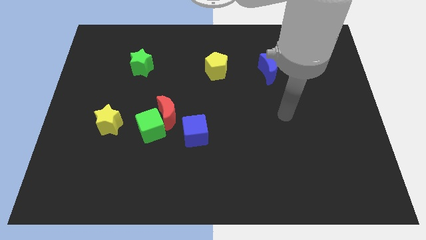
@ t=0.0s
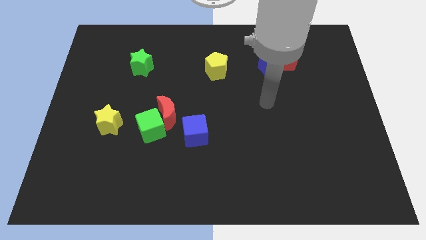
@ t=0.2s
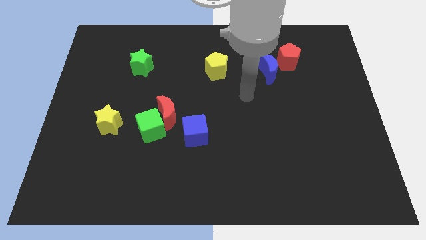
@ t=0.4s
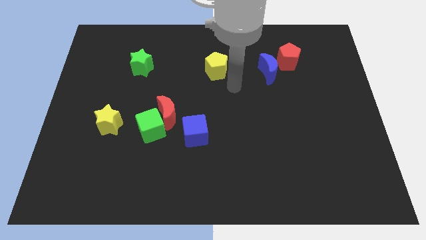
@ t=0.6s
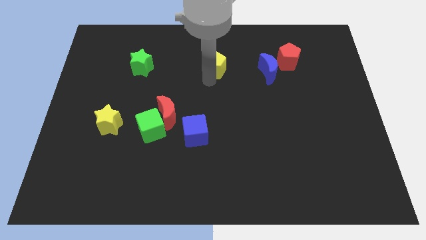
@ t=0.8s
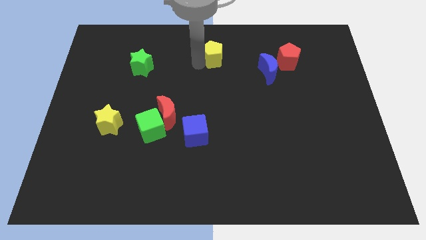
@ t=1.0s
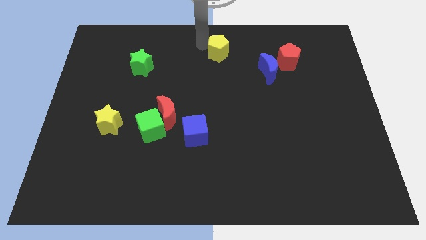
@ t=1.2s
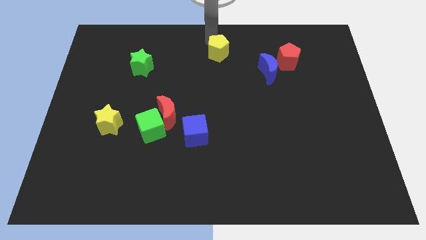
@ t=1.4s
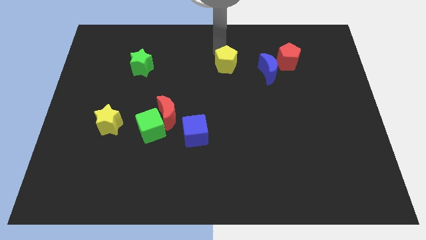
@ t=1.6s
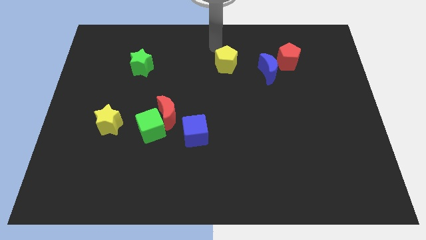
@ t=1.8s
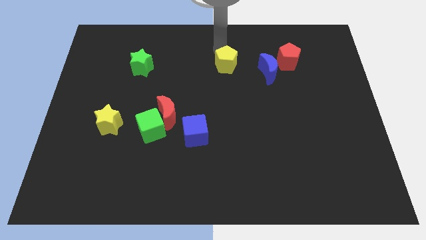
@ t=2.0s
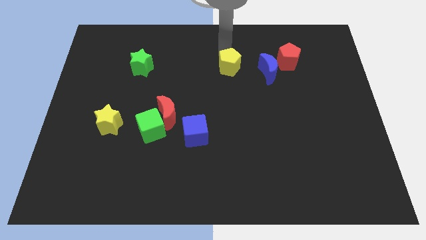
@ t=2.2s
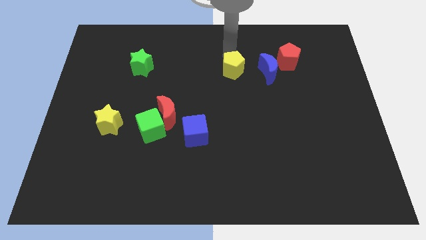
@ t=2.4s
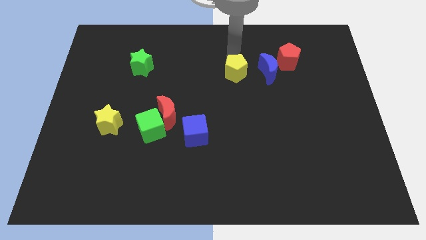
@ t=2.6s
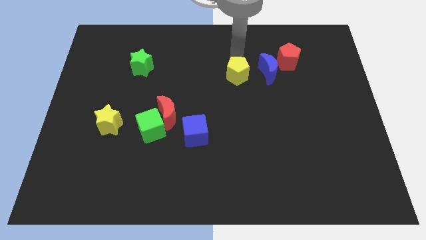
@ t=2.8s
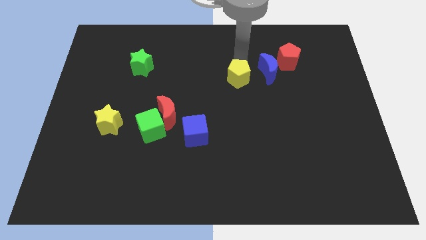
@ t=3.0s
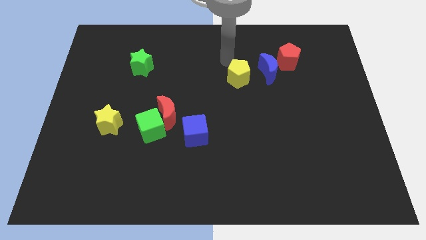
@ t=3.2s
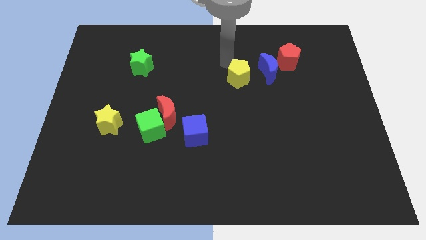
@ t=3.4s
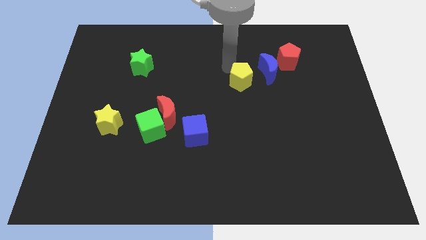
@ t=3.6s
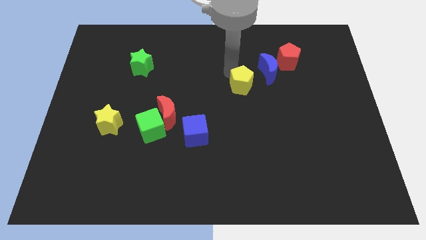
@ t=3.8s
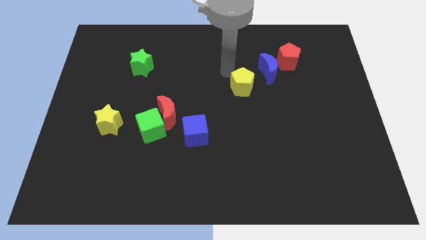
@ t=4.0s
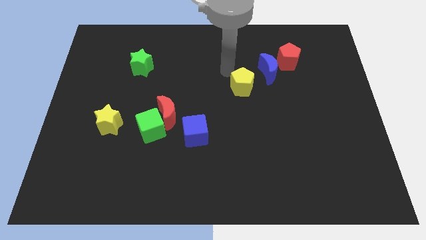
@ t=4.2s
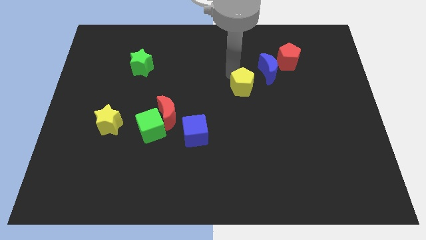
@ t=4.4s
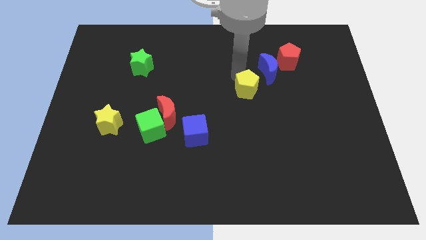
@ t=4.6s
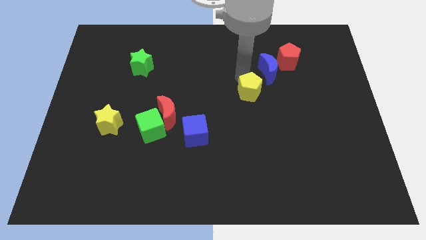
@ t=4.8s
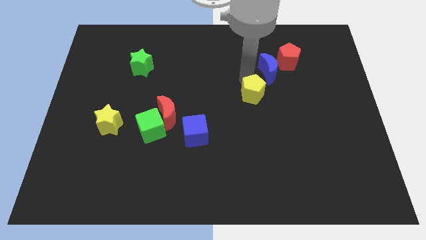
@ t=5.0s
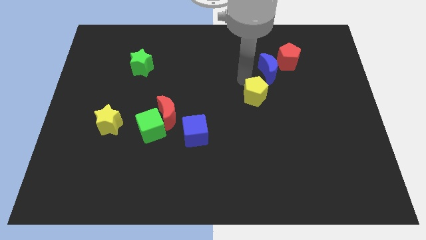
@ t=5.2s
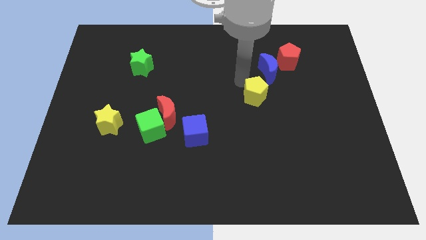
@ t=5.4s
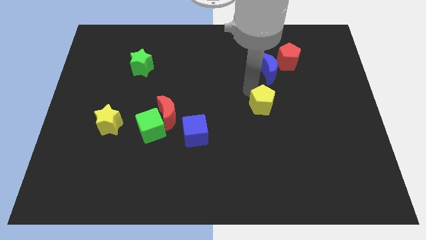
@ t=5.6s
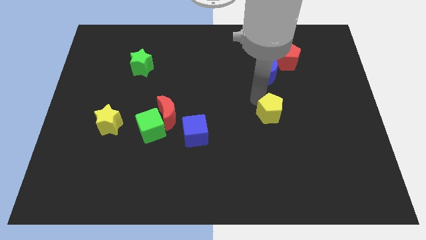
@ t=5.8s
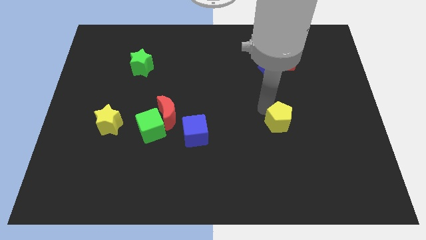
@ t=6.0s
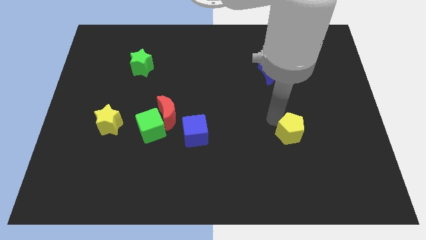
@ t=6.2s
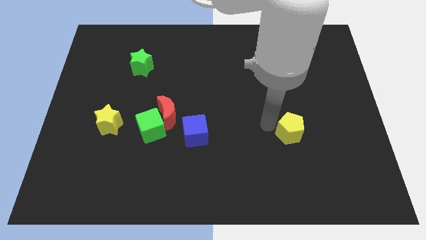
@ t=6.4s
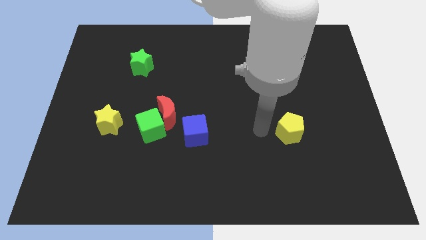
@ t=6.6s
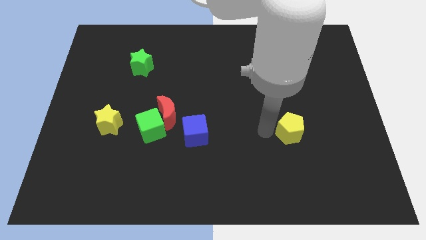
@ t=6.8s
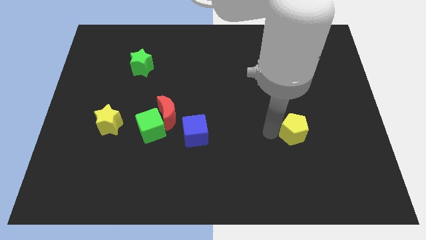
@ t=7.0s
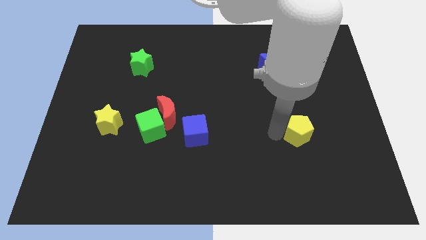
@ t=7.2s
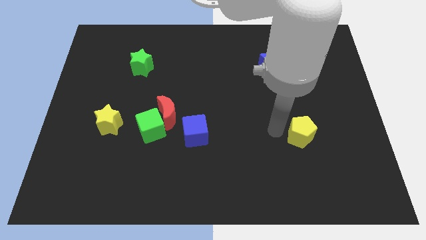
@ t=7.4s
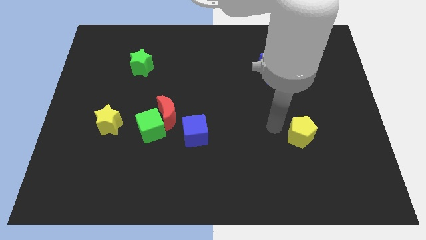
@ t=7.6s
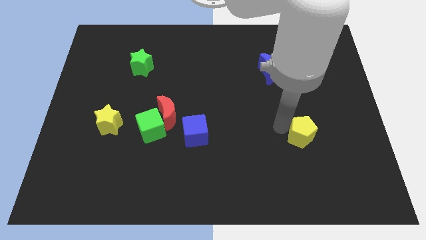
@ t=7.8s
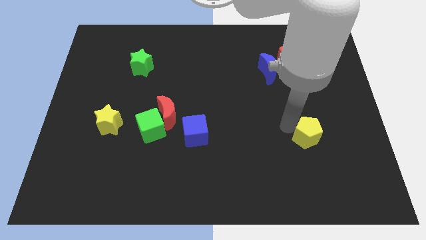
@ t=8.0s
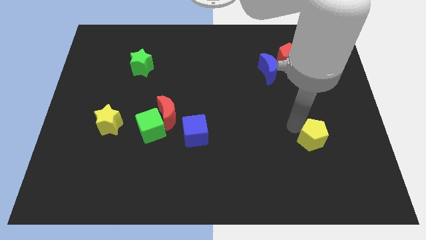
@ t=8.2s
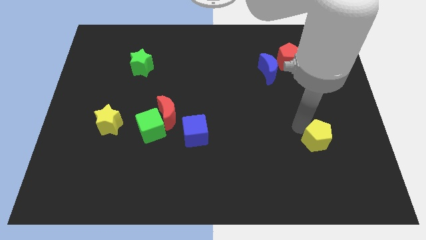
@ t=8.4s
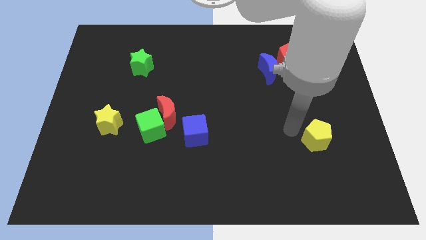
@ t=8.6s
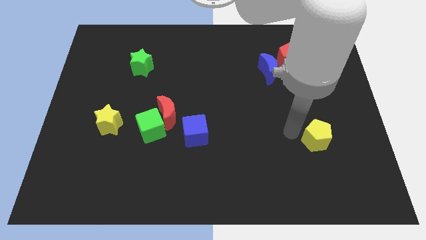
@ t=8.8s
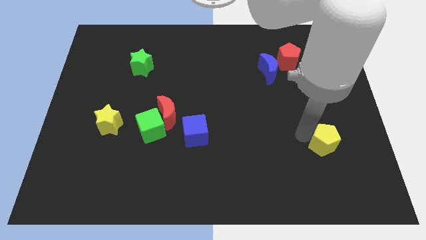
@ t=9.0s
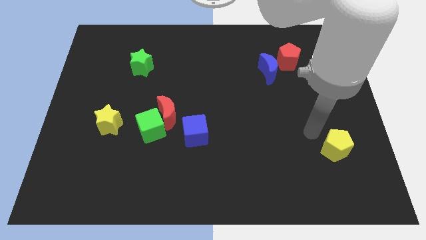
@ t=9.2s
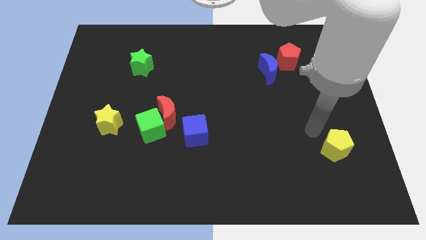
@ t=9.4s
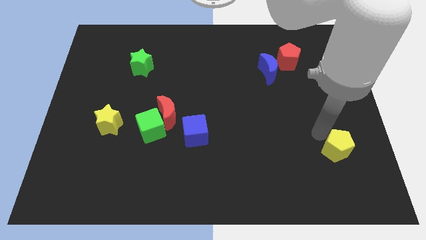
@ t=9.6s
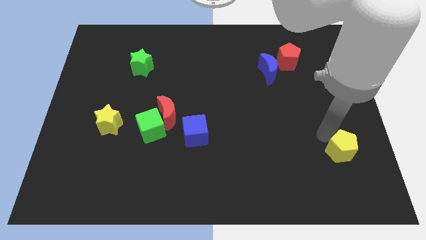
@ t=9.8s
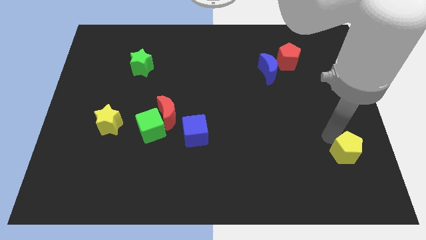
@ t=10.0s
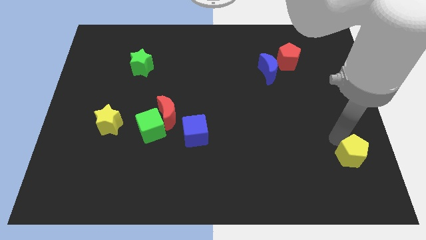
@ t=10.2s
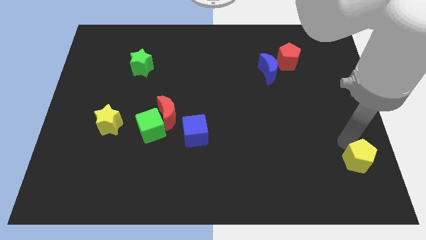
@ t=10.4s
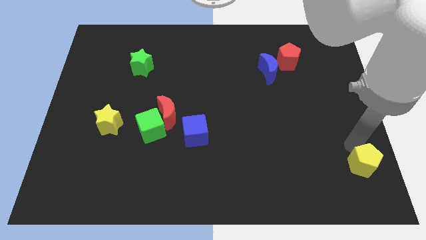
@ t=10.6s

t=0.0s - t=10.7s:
push the yellow pentagon to the bottom right of the board

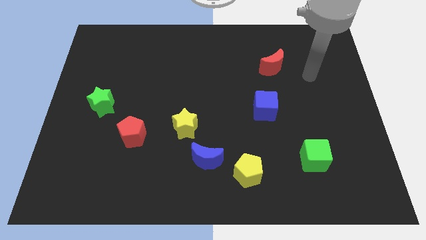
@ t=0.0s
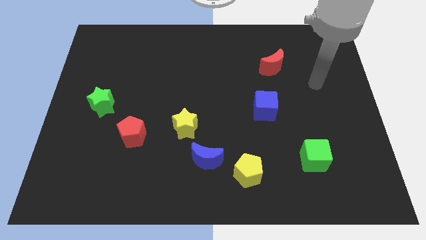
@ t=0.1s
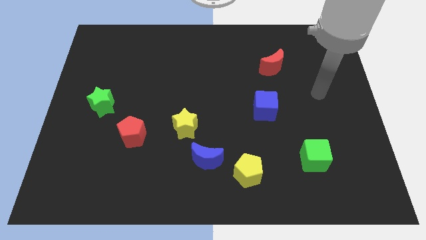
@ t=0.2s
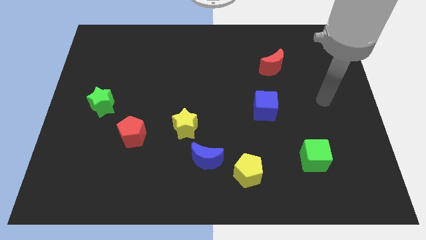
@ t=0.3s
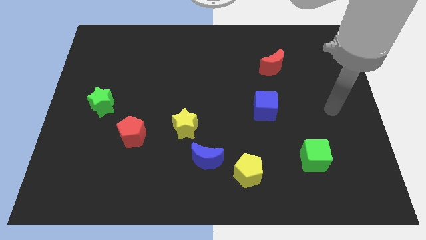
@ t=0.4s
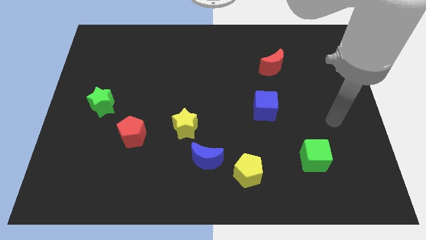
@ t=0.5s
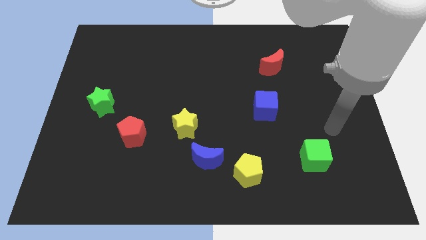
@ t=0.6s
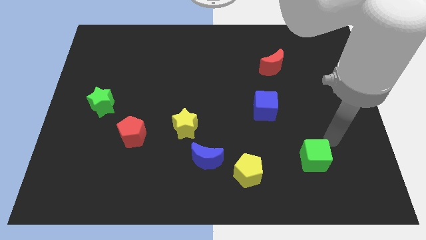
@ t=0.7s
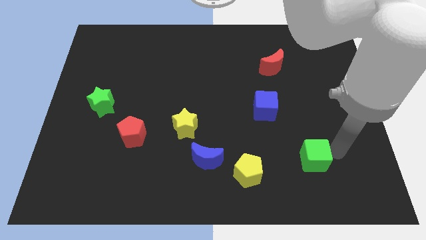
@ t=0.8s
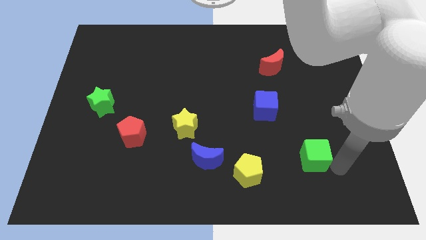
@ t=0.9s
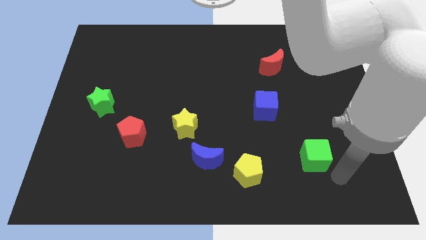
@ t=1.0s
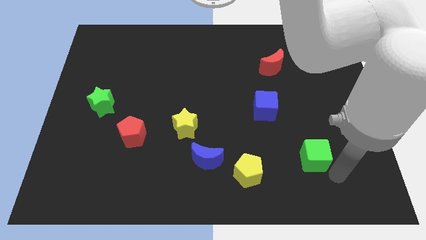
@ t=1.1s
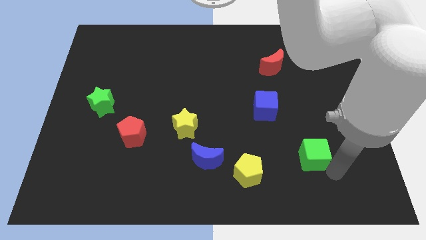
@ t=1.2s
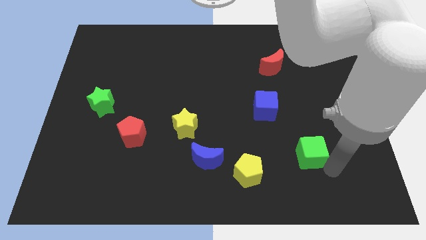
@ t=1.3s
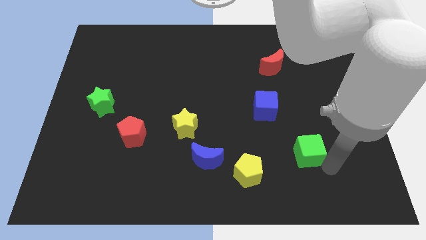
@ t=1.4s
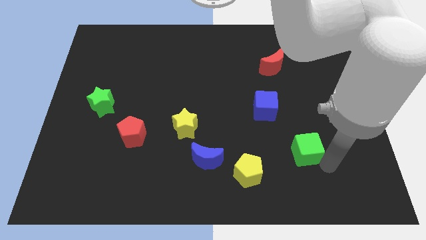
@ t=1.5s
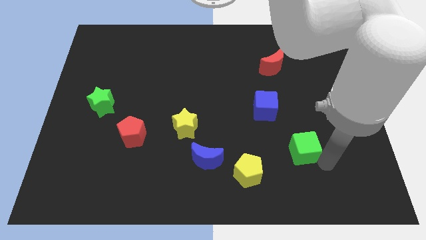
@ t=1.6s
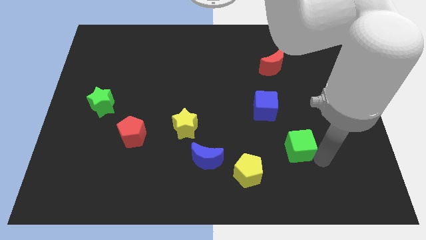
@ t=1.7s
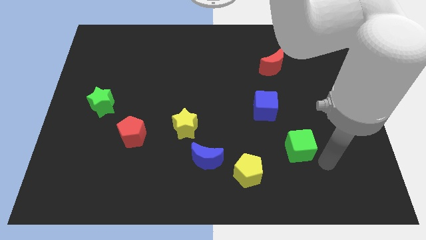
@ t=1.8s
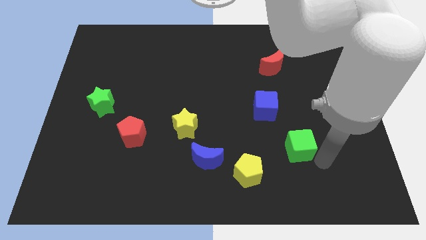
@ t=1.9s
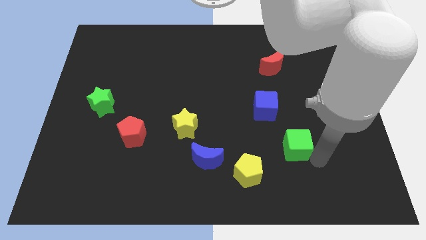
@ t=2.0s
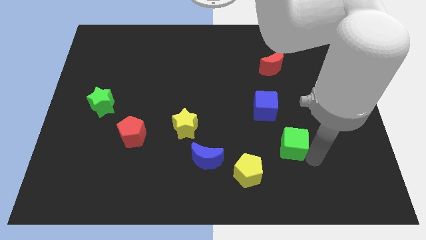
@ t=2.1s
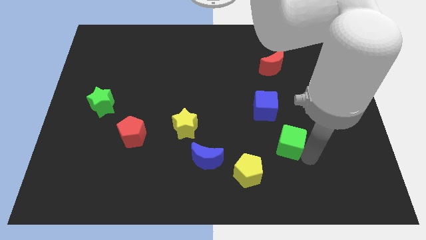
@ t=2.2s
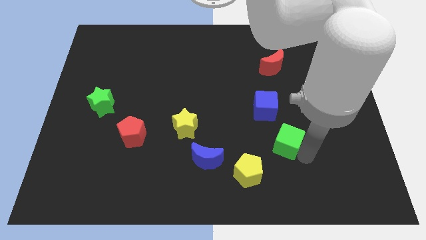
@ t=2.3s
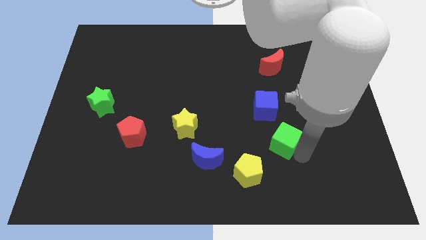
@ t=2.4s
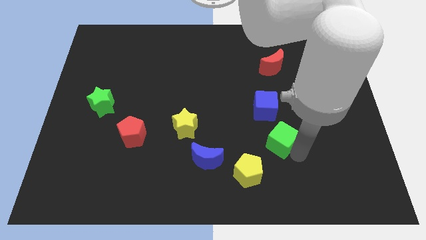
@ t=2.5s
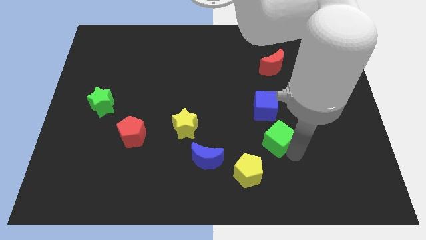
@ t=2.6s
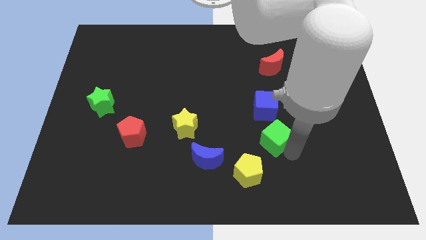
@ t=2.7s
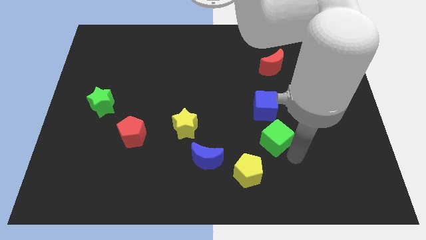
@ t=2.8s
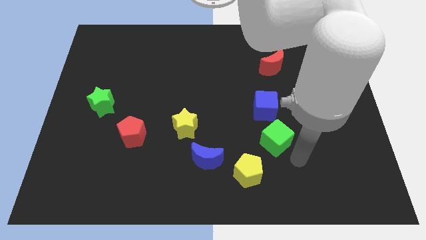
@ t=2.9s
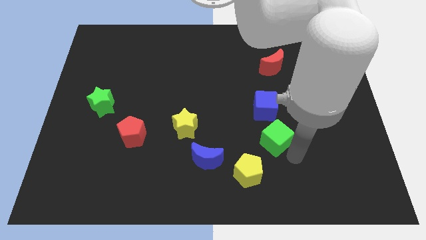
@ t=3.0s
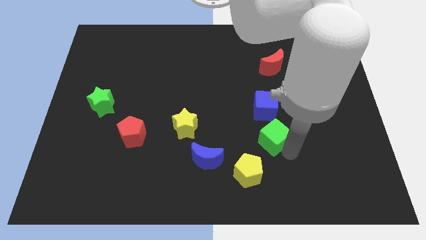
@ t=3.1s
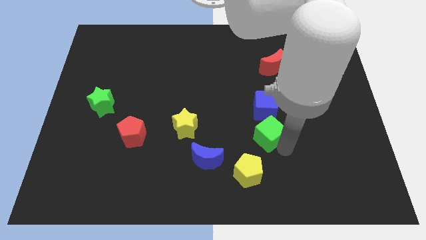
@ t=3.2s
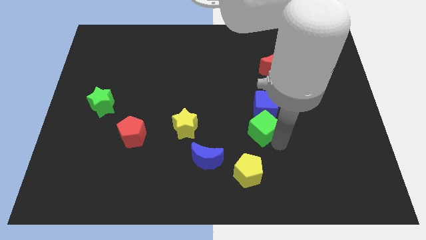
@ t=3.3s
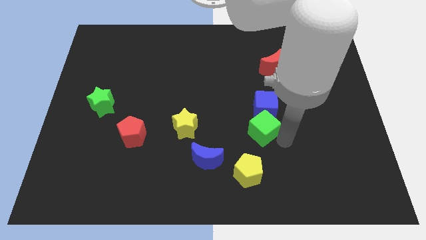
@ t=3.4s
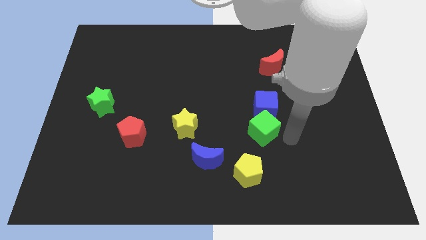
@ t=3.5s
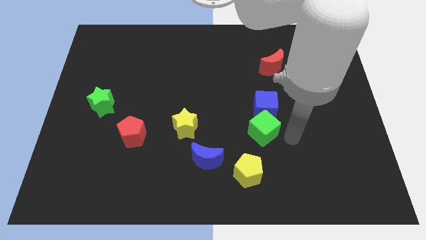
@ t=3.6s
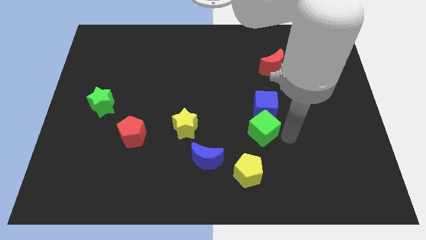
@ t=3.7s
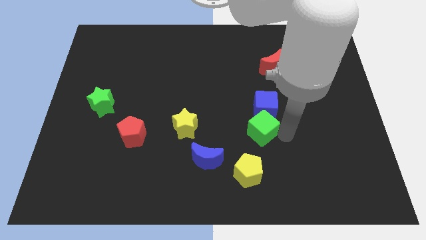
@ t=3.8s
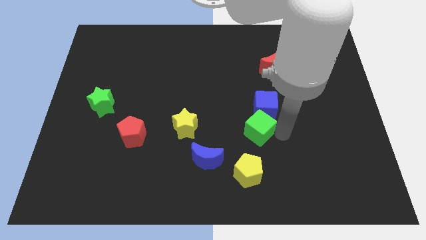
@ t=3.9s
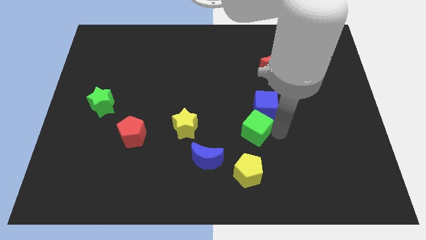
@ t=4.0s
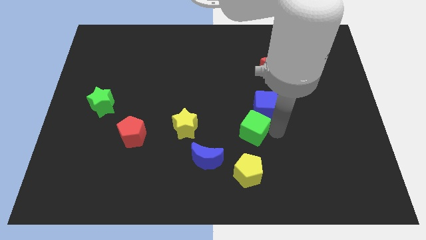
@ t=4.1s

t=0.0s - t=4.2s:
move the green cube to the middle of the board
